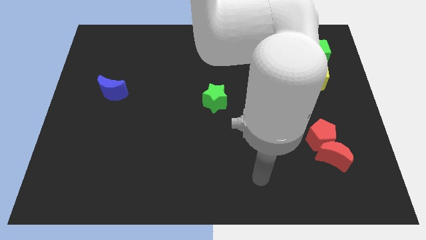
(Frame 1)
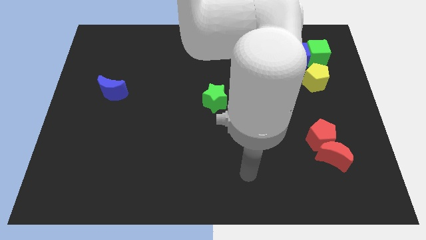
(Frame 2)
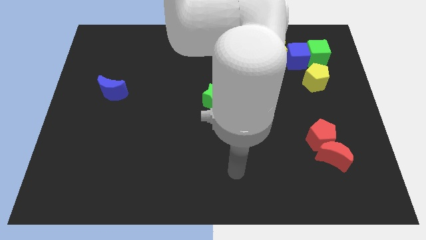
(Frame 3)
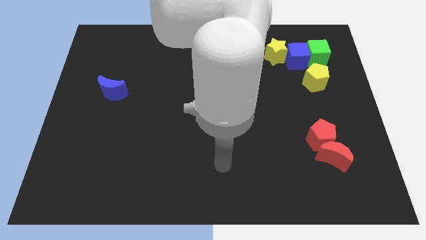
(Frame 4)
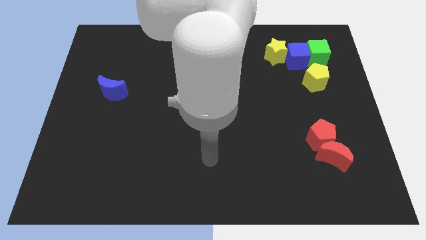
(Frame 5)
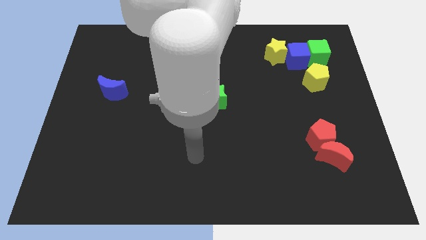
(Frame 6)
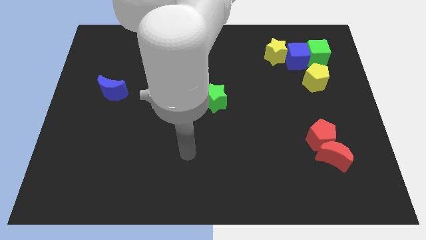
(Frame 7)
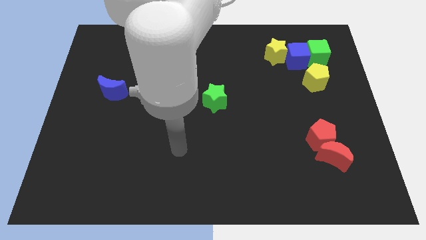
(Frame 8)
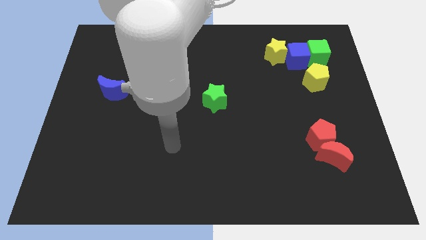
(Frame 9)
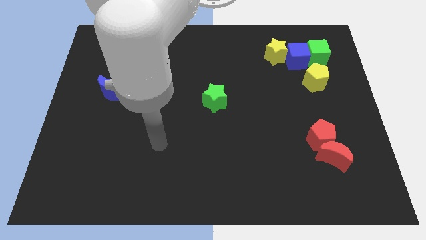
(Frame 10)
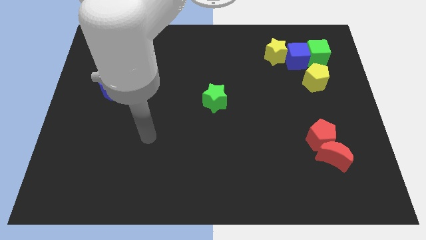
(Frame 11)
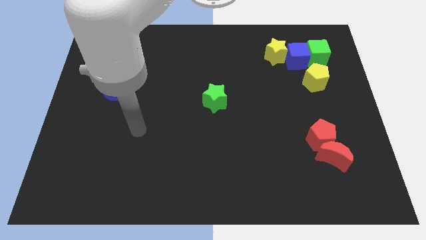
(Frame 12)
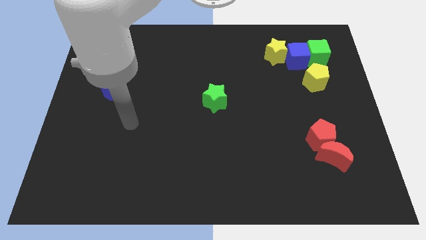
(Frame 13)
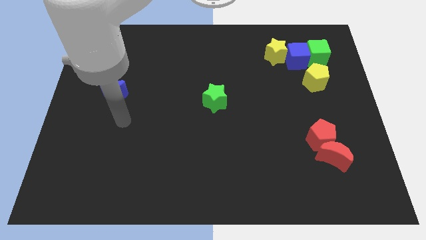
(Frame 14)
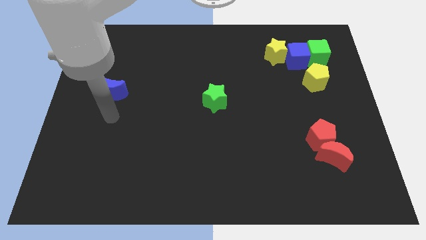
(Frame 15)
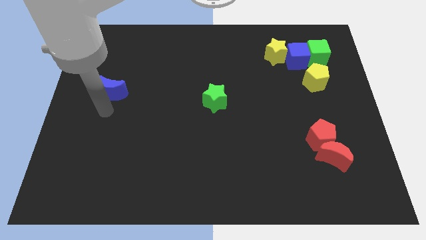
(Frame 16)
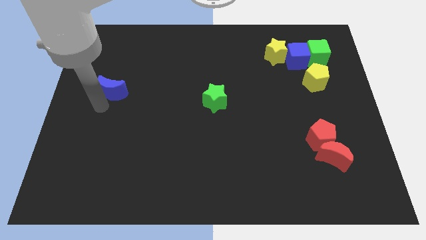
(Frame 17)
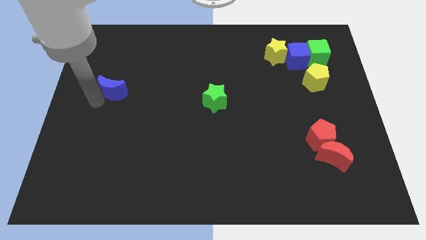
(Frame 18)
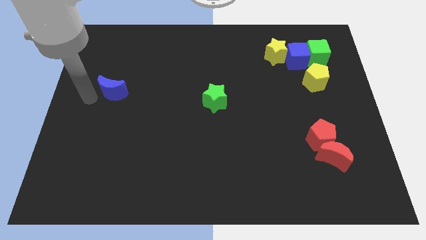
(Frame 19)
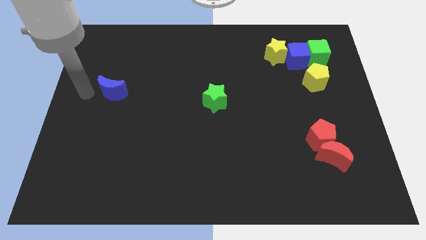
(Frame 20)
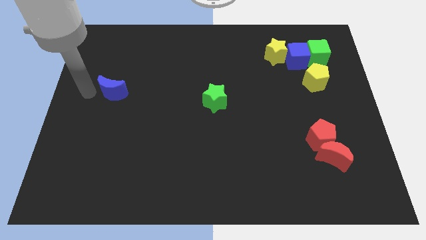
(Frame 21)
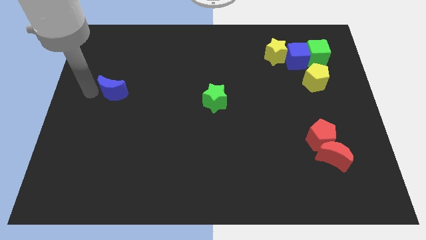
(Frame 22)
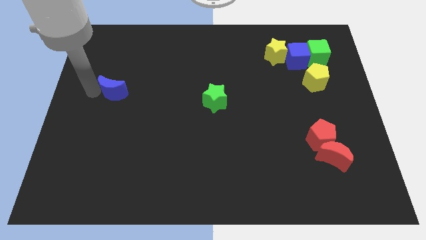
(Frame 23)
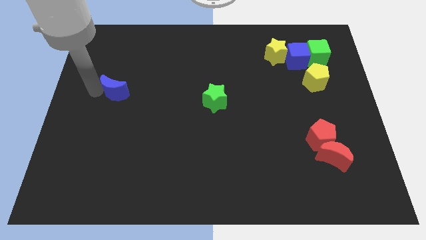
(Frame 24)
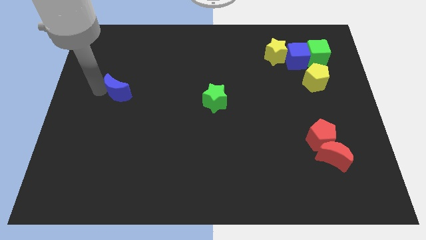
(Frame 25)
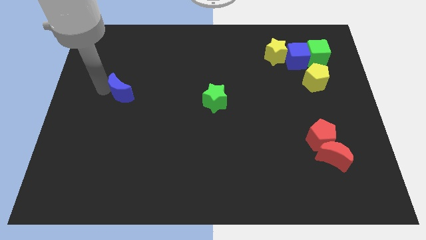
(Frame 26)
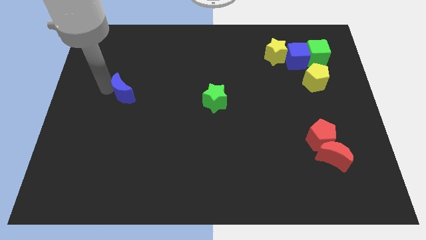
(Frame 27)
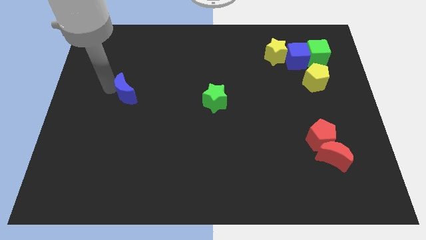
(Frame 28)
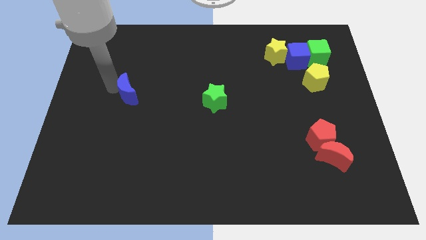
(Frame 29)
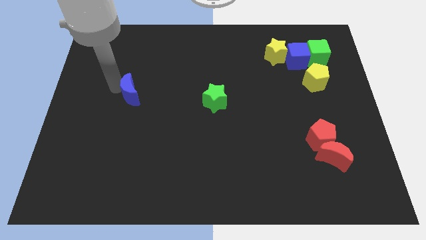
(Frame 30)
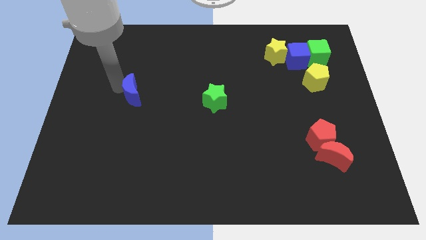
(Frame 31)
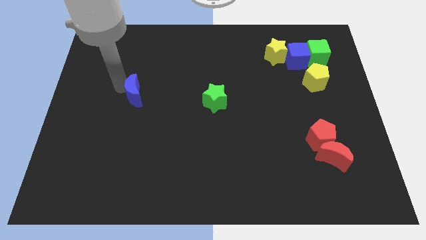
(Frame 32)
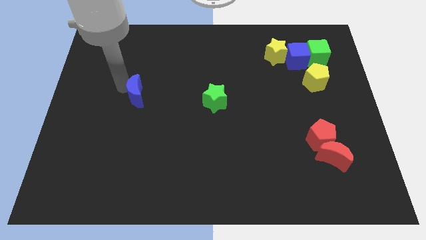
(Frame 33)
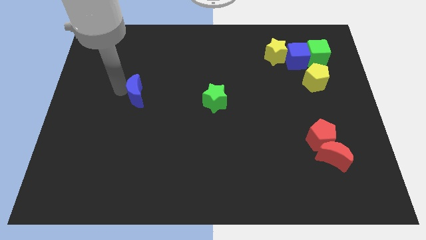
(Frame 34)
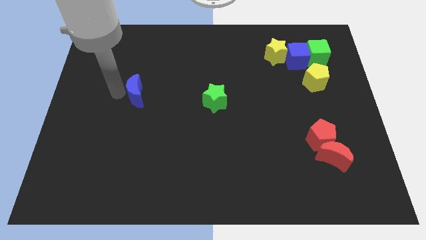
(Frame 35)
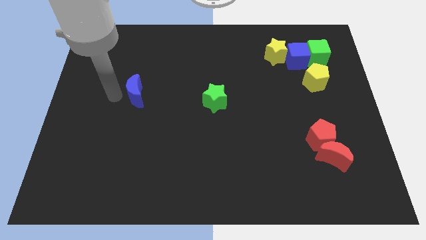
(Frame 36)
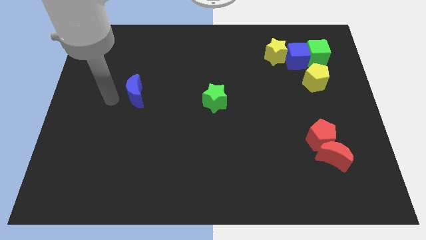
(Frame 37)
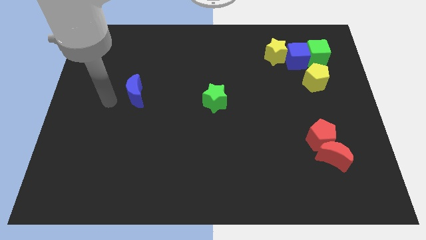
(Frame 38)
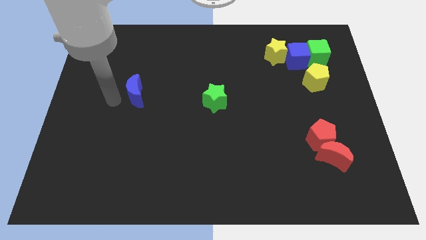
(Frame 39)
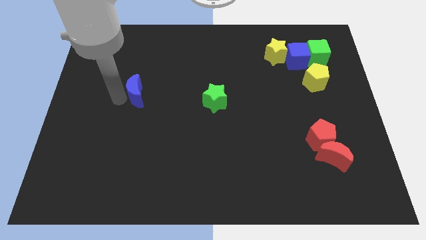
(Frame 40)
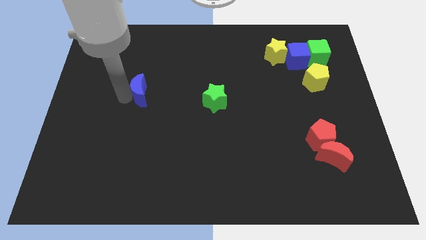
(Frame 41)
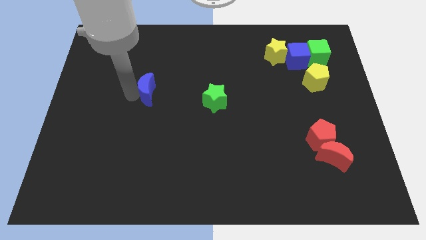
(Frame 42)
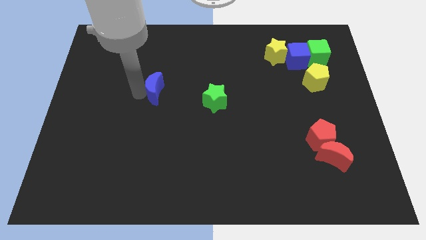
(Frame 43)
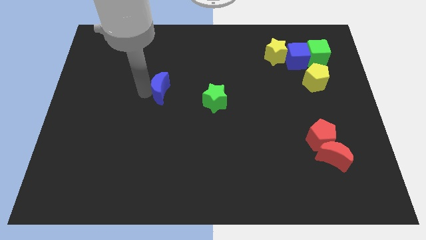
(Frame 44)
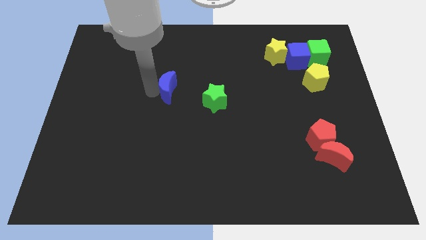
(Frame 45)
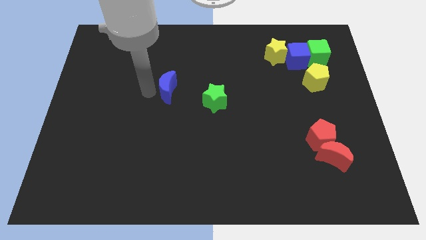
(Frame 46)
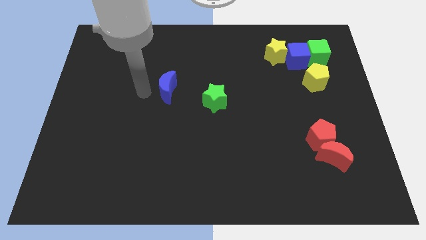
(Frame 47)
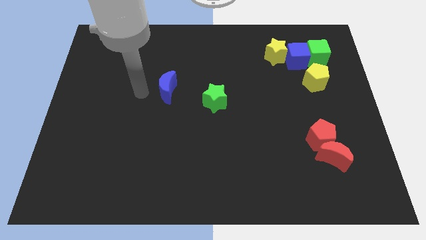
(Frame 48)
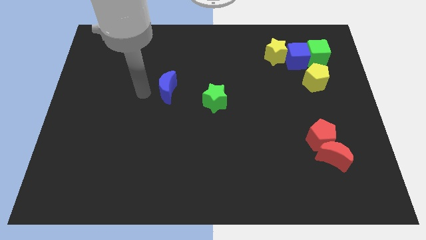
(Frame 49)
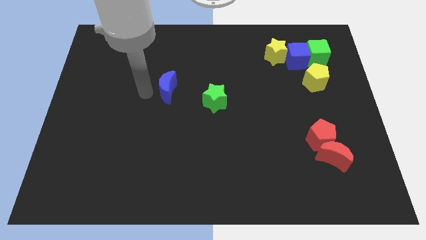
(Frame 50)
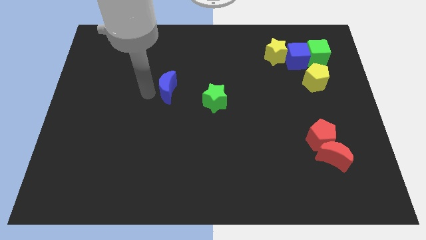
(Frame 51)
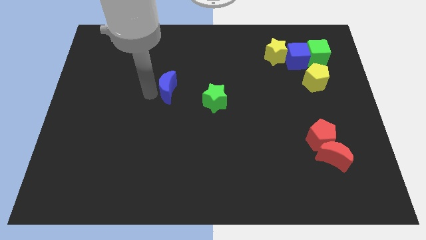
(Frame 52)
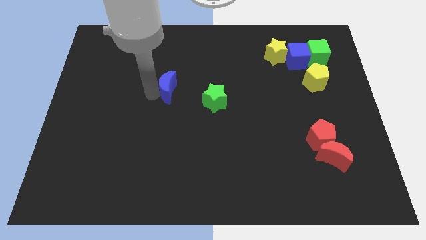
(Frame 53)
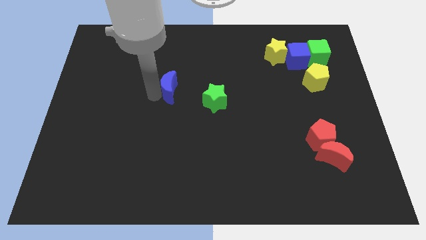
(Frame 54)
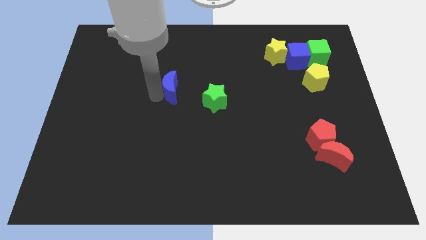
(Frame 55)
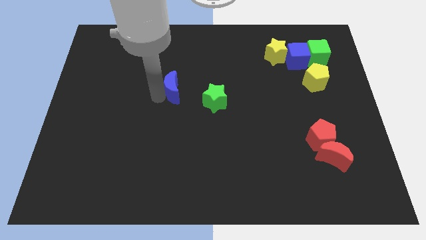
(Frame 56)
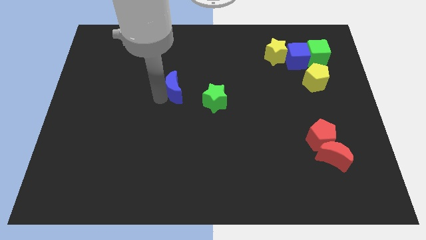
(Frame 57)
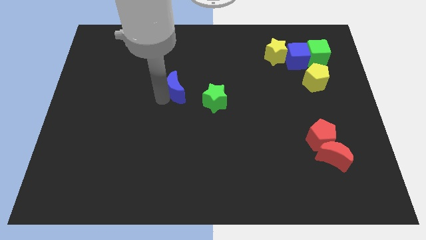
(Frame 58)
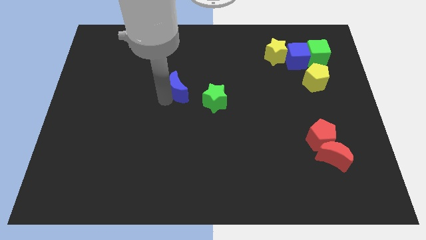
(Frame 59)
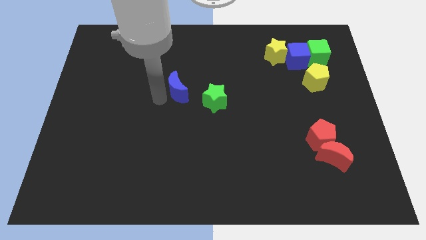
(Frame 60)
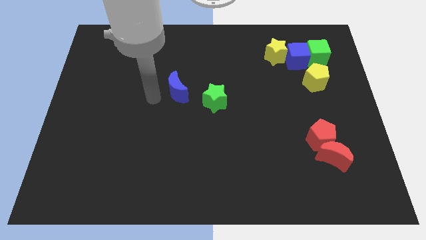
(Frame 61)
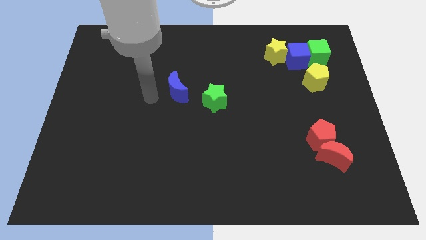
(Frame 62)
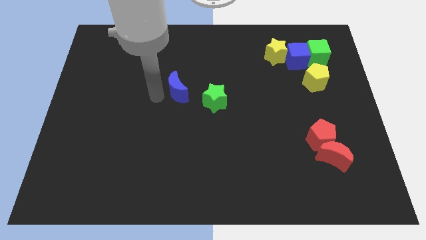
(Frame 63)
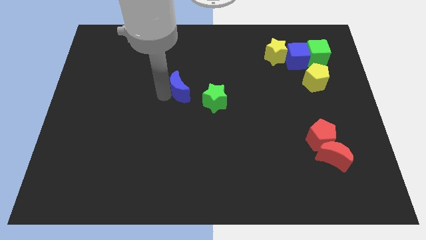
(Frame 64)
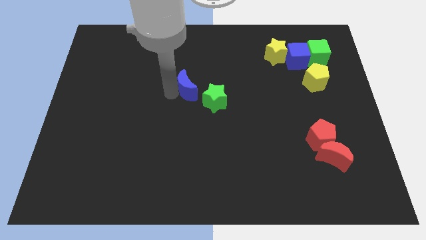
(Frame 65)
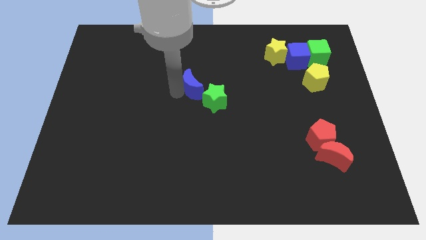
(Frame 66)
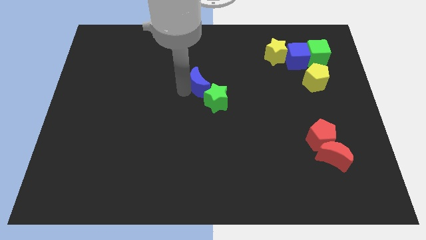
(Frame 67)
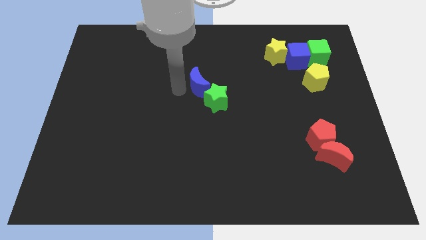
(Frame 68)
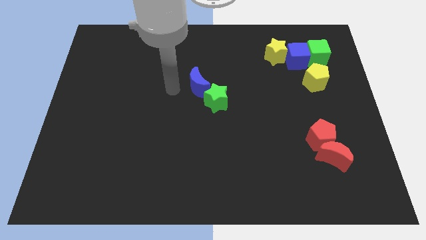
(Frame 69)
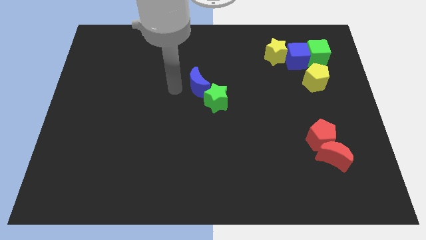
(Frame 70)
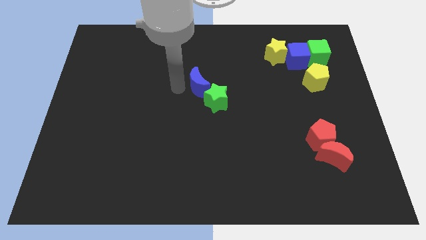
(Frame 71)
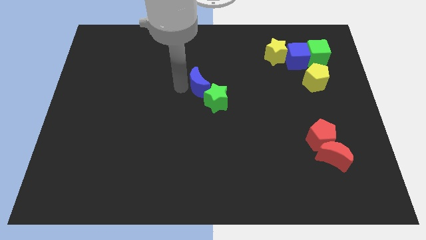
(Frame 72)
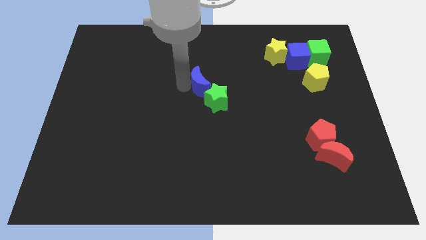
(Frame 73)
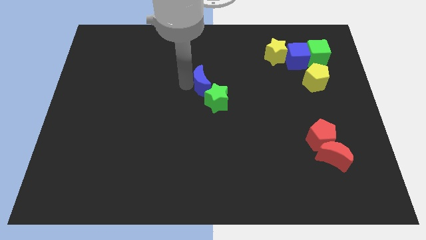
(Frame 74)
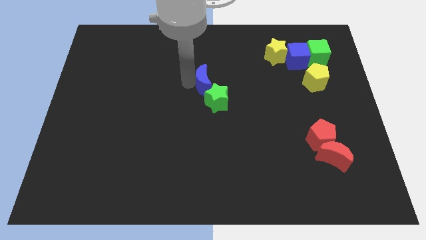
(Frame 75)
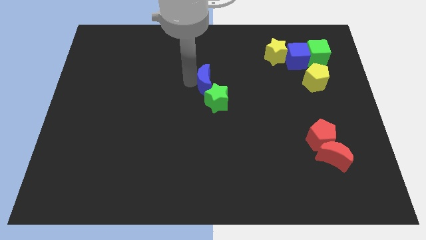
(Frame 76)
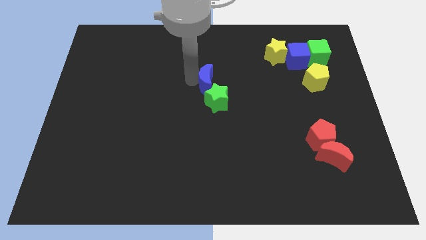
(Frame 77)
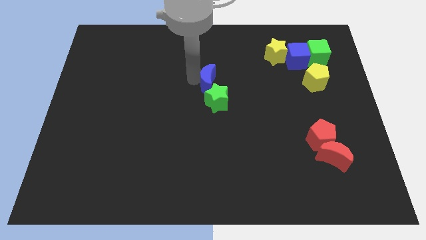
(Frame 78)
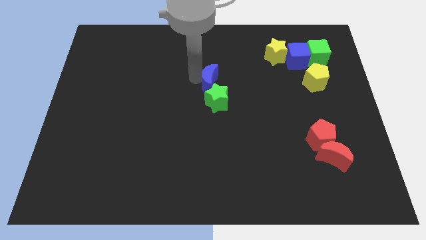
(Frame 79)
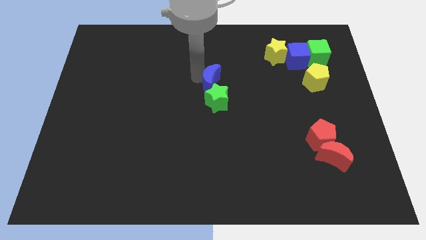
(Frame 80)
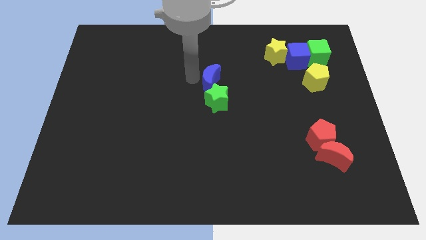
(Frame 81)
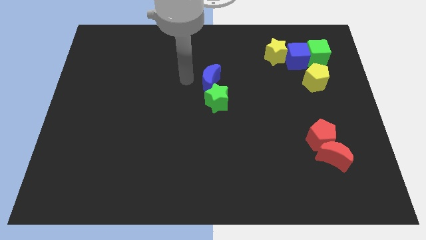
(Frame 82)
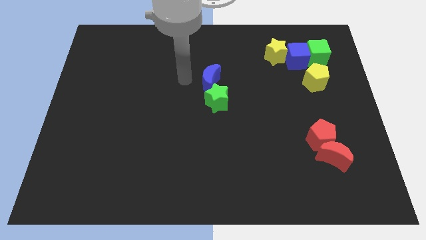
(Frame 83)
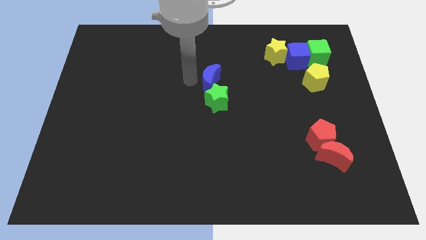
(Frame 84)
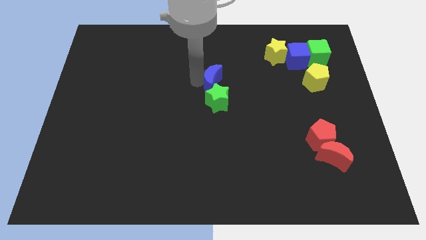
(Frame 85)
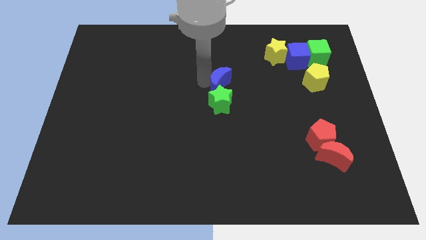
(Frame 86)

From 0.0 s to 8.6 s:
slide the blue moon to the top right of the green star
